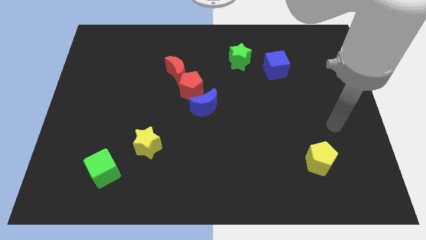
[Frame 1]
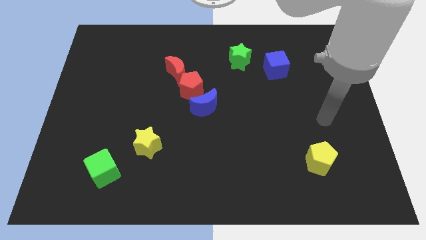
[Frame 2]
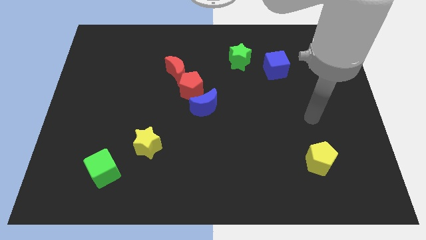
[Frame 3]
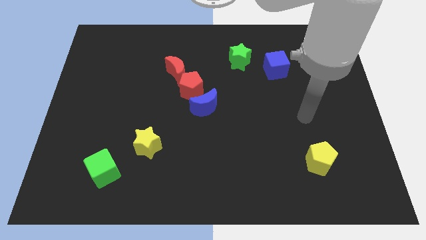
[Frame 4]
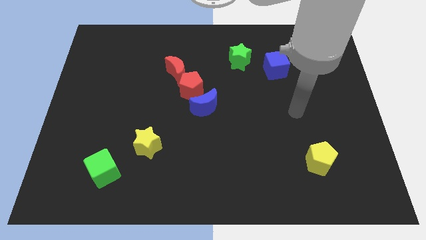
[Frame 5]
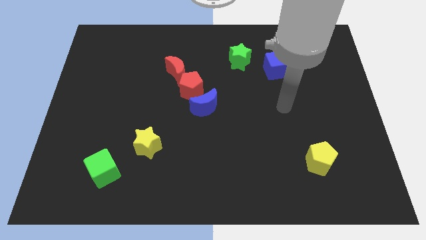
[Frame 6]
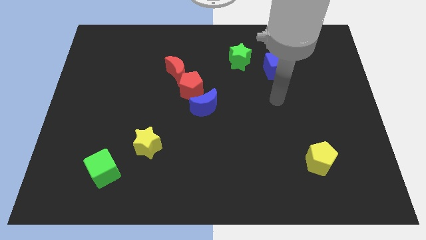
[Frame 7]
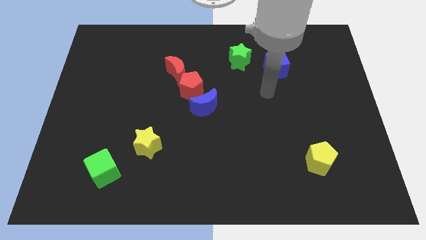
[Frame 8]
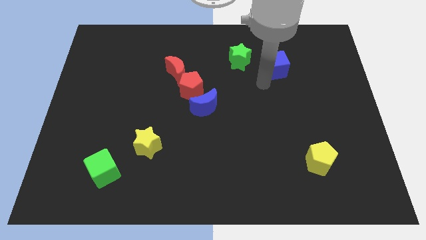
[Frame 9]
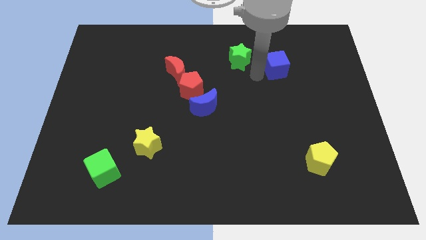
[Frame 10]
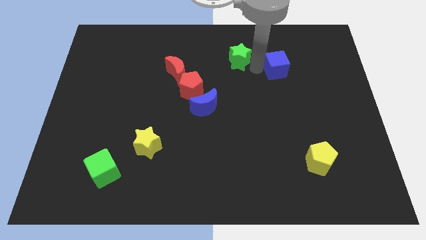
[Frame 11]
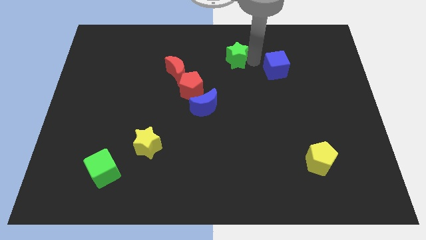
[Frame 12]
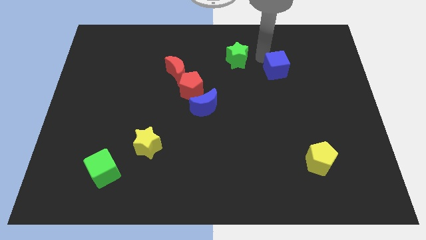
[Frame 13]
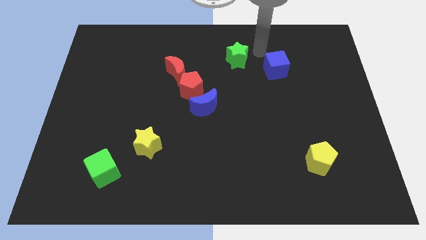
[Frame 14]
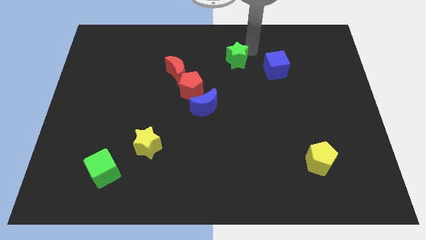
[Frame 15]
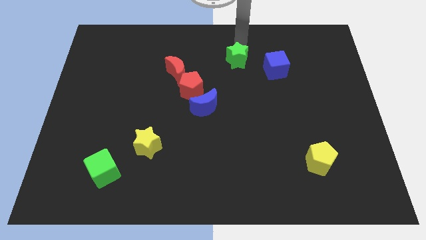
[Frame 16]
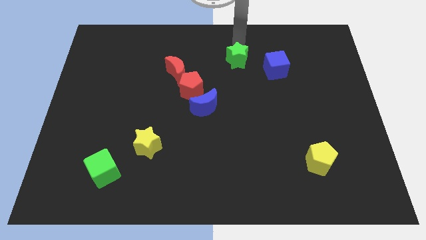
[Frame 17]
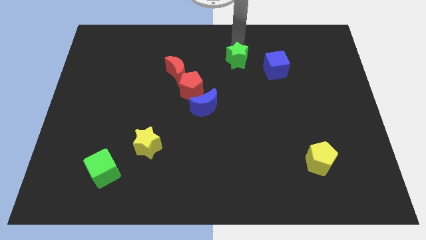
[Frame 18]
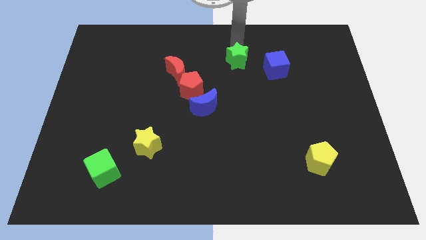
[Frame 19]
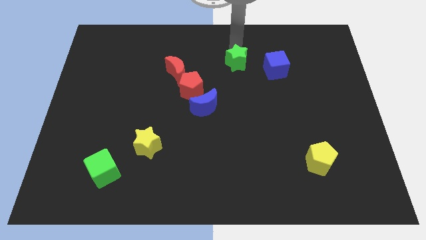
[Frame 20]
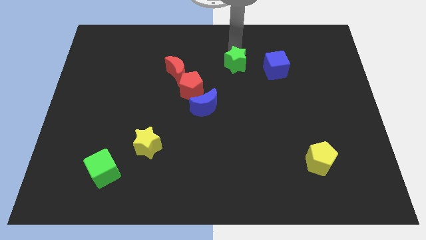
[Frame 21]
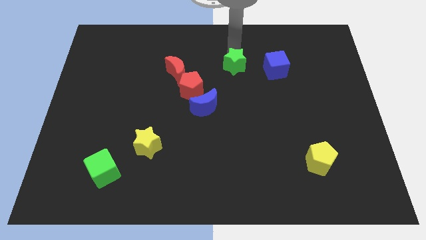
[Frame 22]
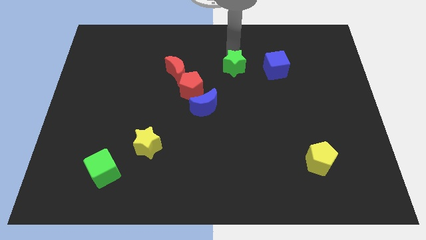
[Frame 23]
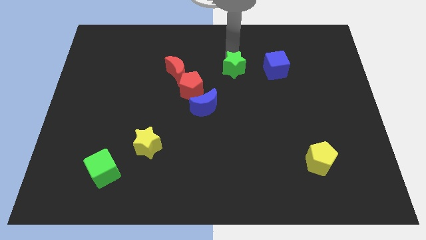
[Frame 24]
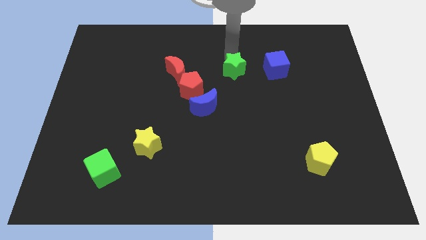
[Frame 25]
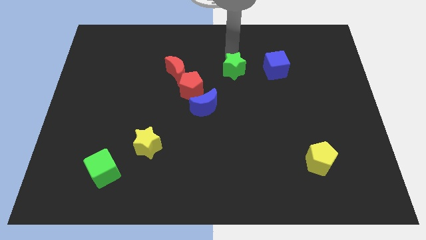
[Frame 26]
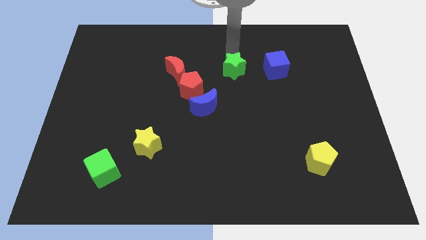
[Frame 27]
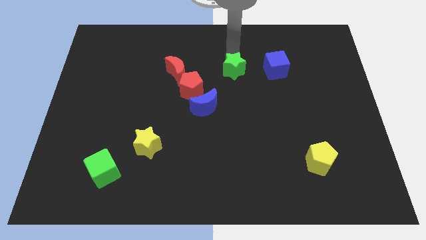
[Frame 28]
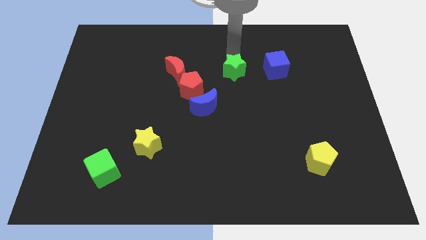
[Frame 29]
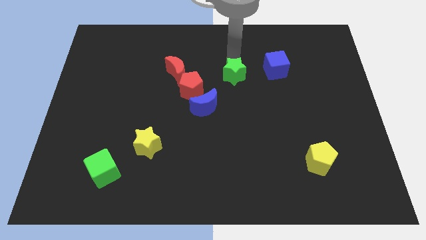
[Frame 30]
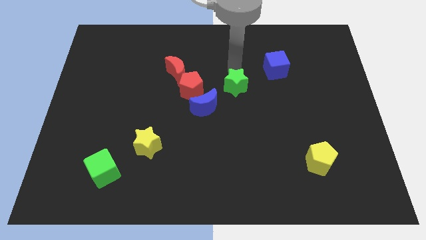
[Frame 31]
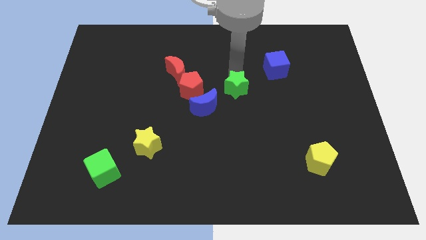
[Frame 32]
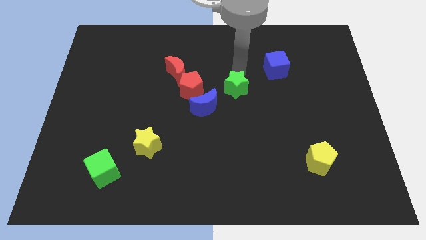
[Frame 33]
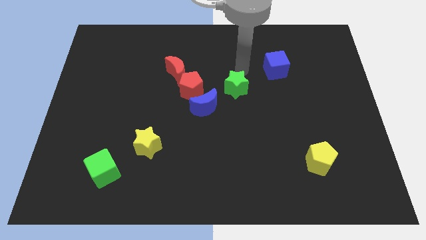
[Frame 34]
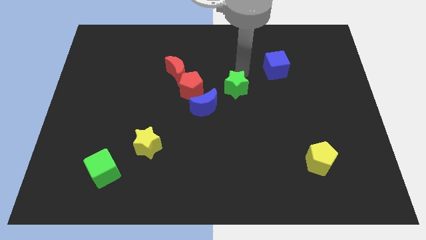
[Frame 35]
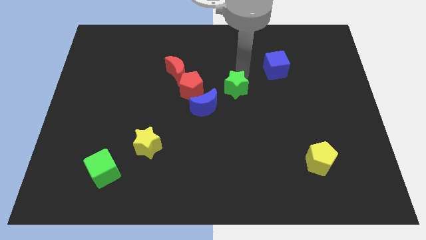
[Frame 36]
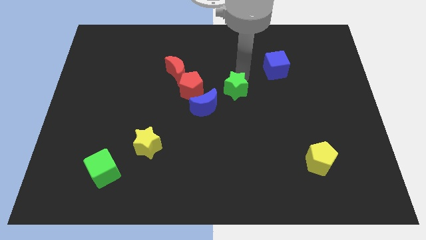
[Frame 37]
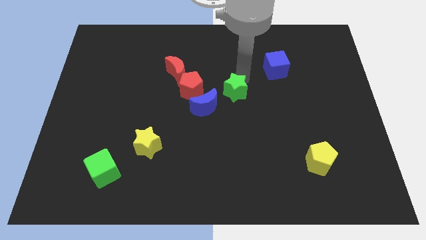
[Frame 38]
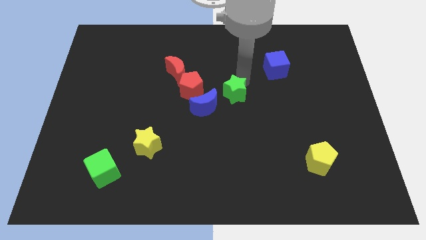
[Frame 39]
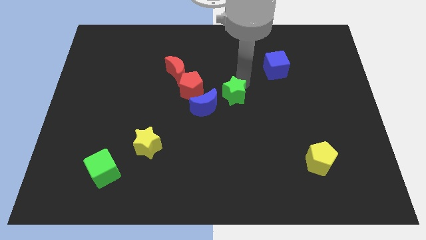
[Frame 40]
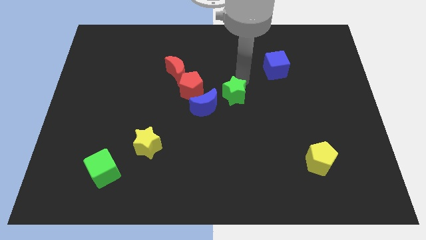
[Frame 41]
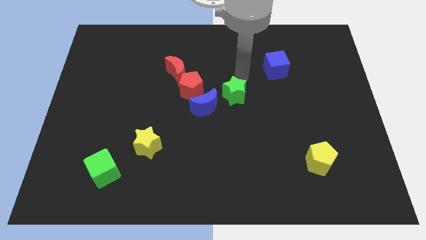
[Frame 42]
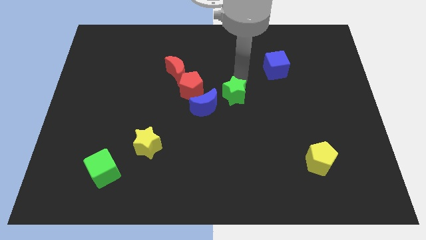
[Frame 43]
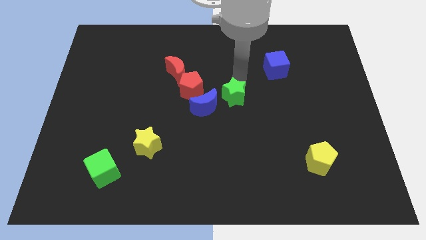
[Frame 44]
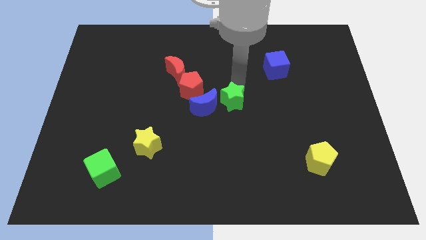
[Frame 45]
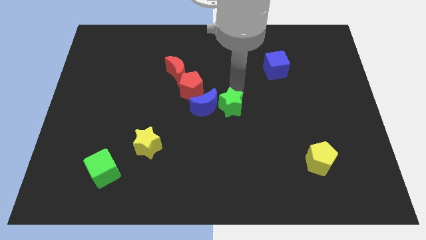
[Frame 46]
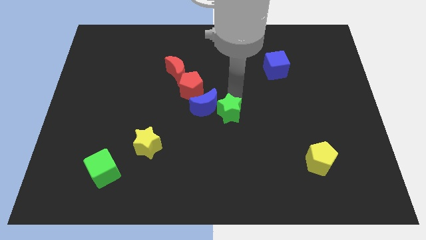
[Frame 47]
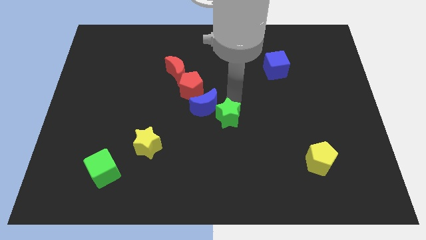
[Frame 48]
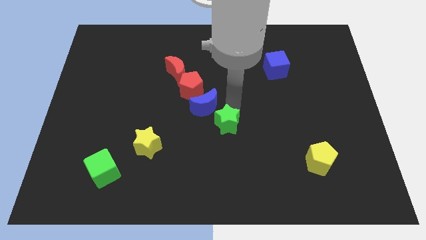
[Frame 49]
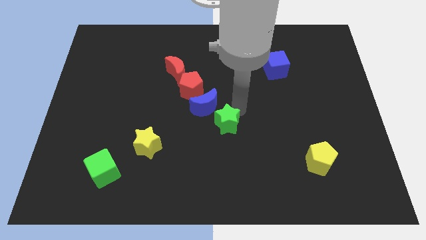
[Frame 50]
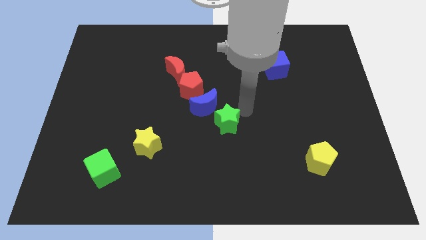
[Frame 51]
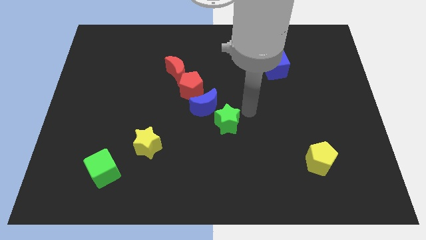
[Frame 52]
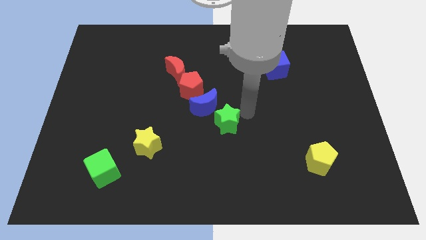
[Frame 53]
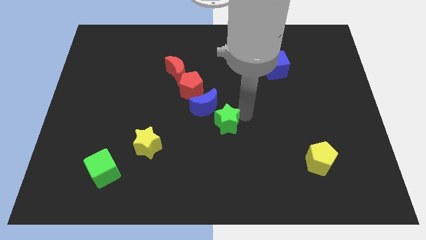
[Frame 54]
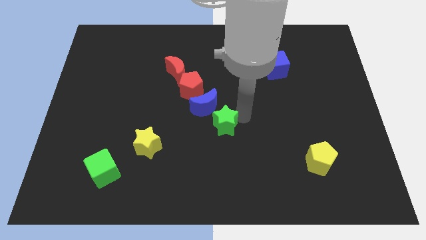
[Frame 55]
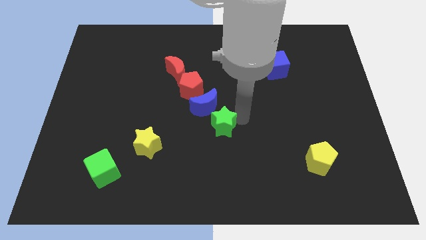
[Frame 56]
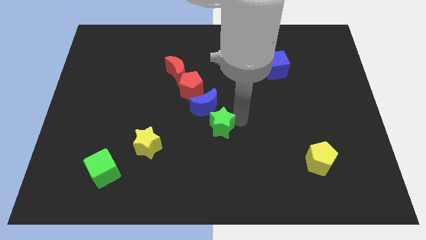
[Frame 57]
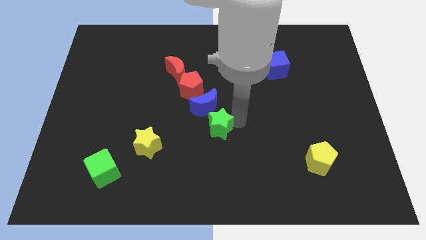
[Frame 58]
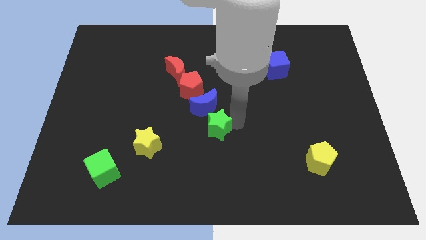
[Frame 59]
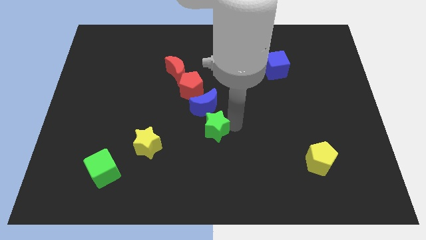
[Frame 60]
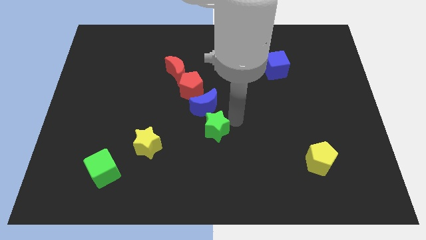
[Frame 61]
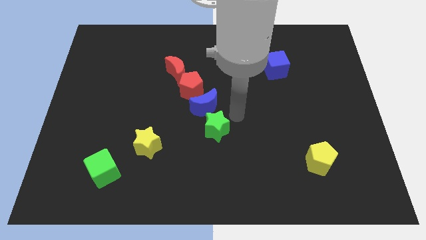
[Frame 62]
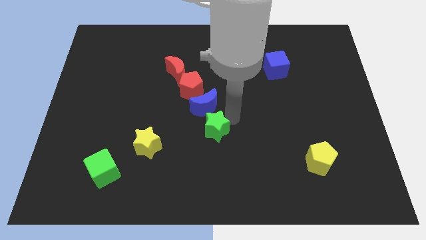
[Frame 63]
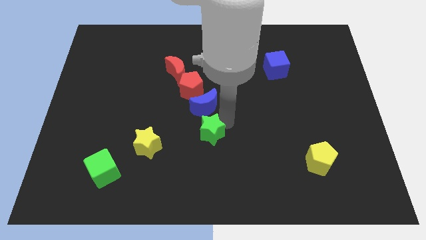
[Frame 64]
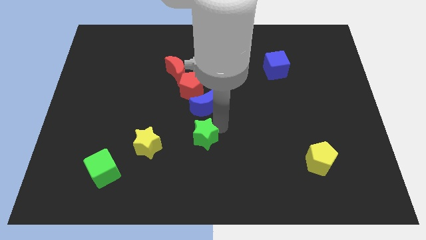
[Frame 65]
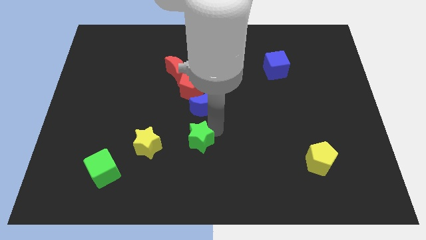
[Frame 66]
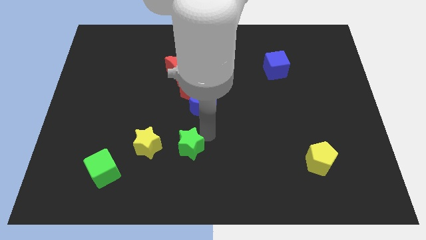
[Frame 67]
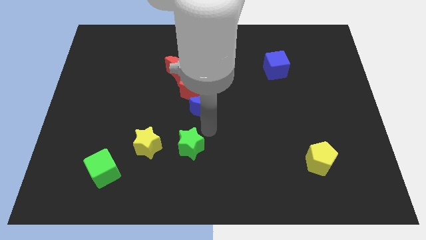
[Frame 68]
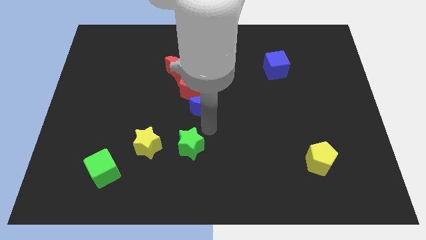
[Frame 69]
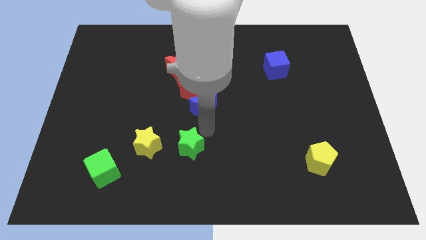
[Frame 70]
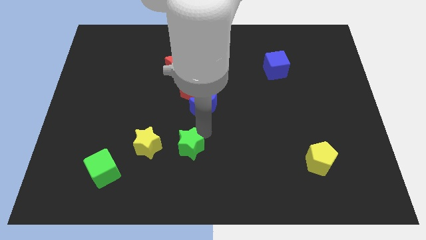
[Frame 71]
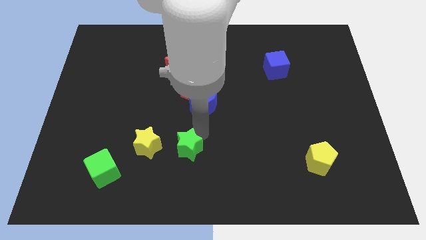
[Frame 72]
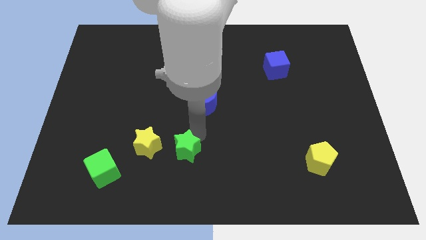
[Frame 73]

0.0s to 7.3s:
slide the green star to the bottom right of the yellow star
